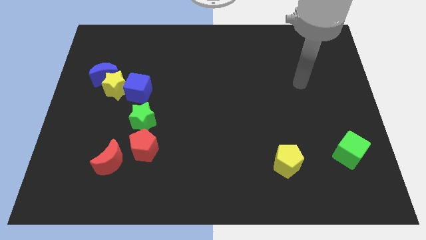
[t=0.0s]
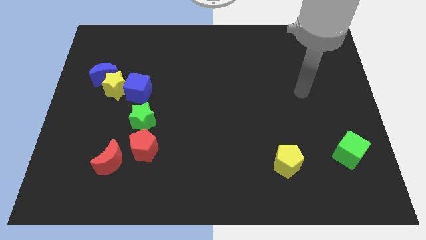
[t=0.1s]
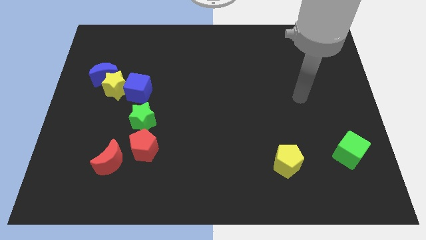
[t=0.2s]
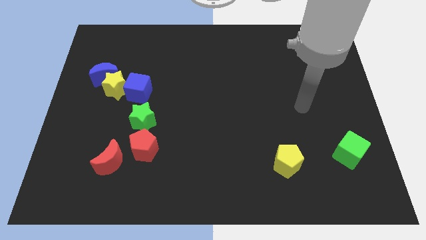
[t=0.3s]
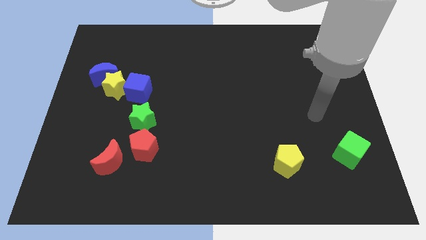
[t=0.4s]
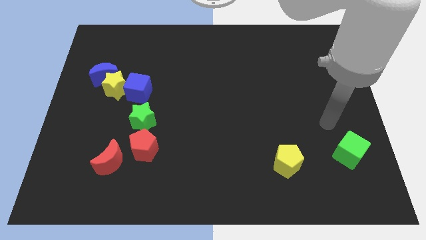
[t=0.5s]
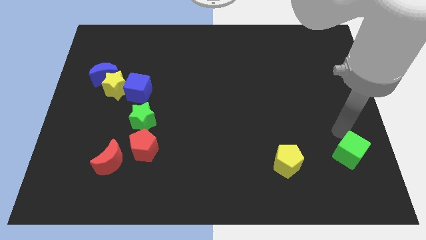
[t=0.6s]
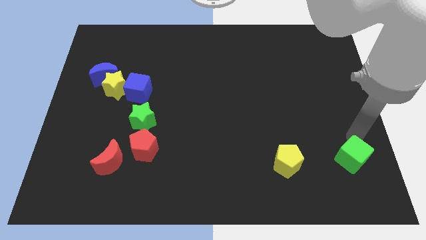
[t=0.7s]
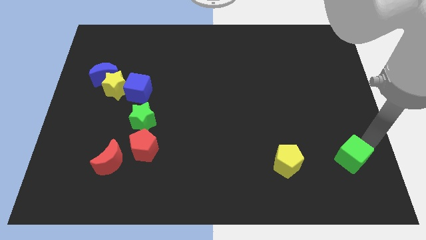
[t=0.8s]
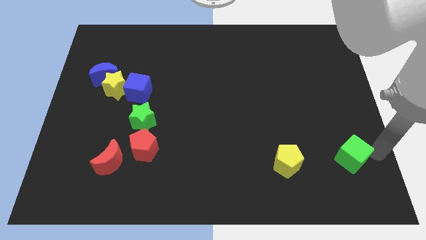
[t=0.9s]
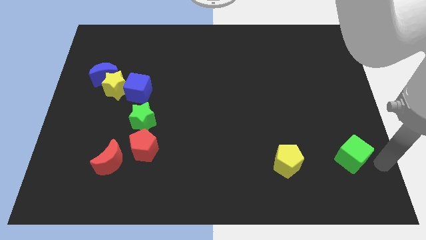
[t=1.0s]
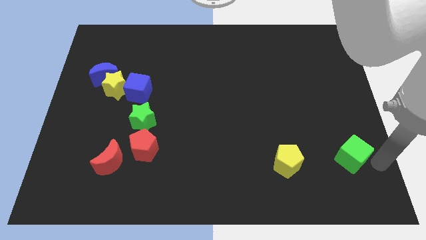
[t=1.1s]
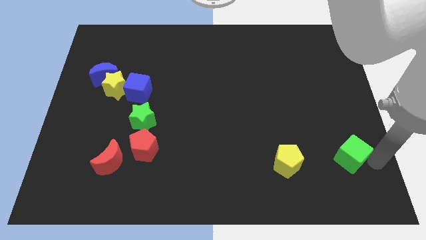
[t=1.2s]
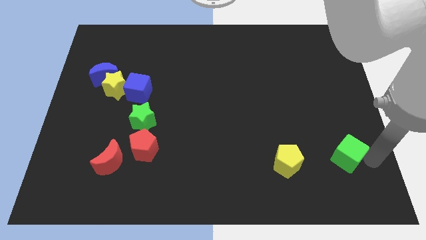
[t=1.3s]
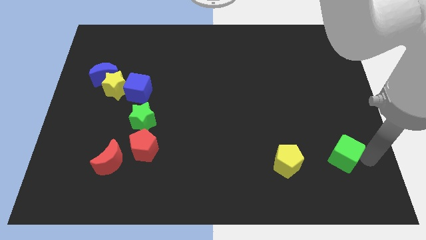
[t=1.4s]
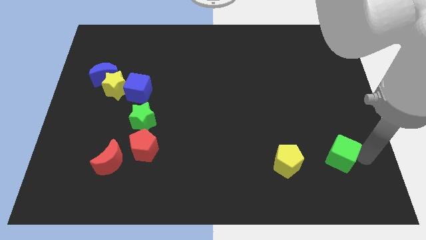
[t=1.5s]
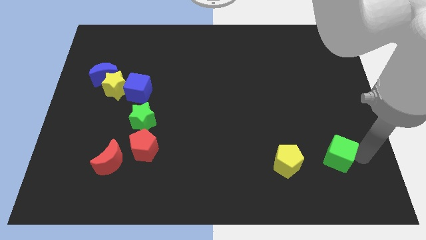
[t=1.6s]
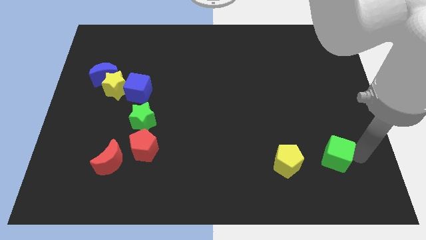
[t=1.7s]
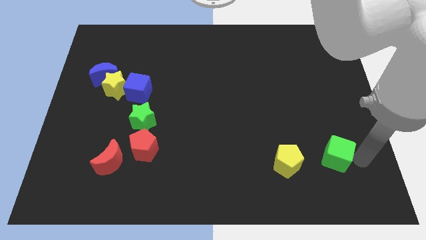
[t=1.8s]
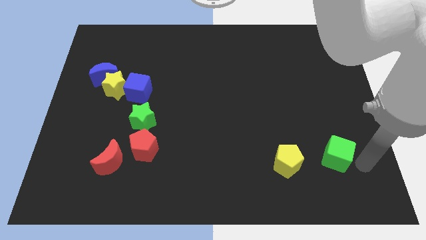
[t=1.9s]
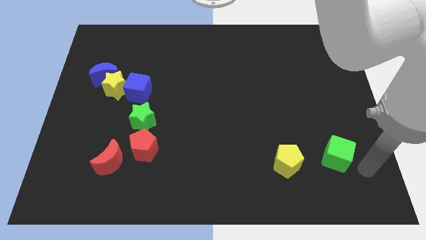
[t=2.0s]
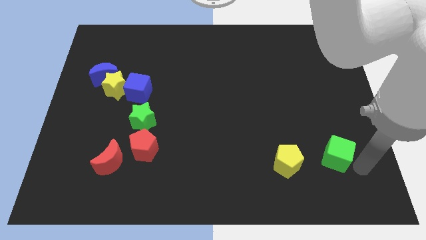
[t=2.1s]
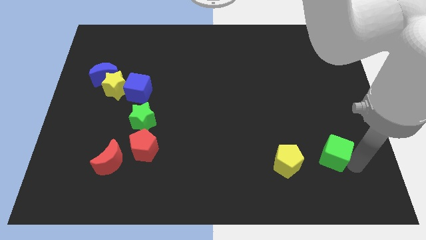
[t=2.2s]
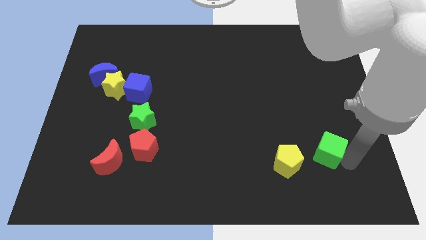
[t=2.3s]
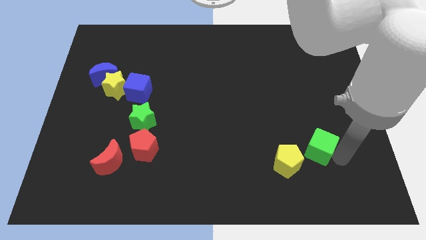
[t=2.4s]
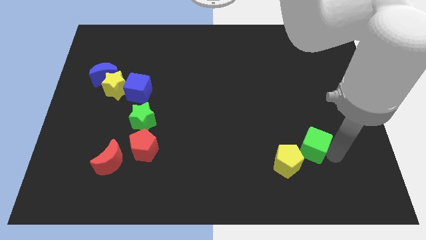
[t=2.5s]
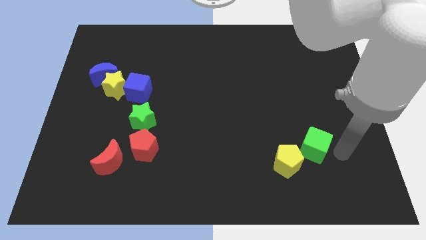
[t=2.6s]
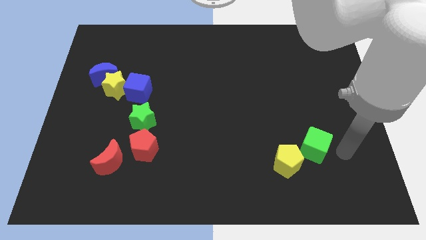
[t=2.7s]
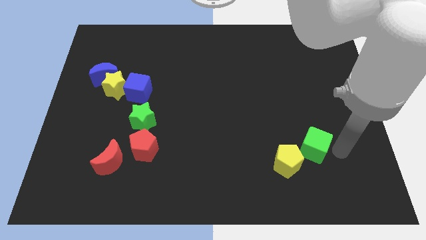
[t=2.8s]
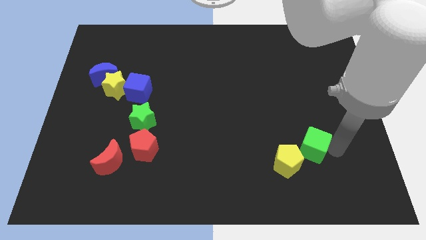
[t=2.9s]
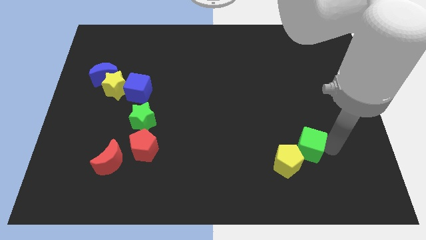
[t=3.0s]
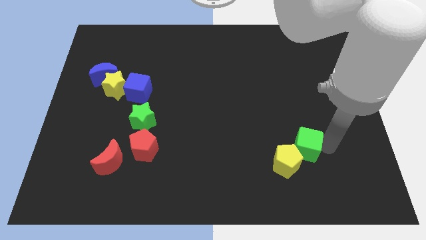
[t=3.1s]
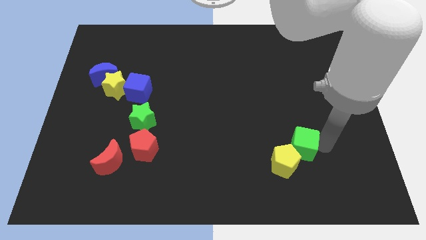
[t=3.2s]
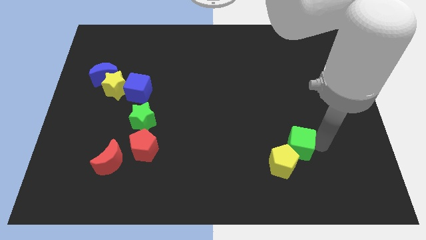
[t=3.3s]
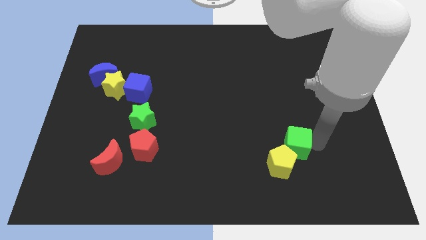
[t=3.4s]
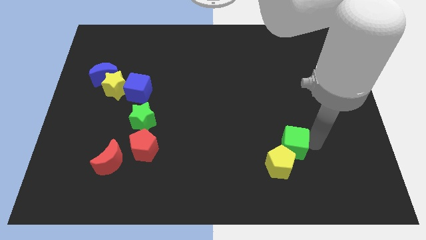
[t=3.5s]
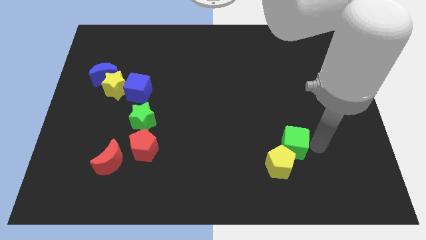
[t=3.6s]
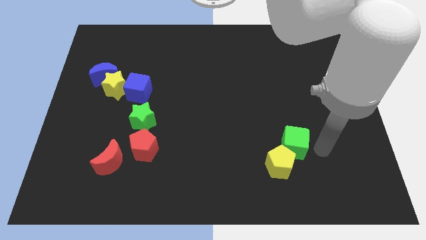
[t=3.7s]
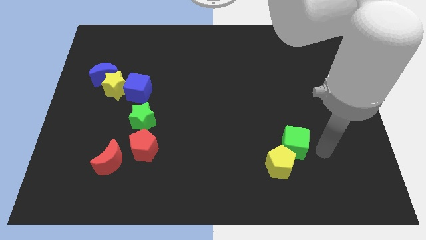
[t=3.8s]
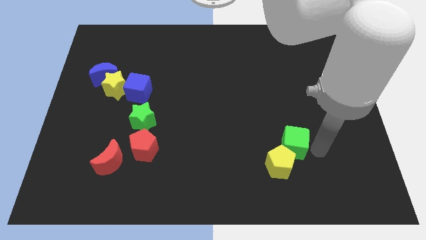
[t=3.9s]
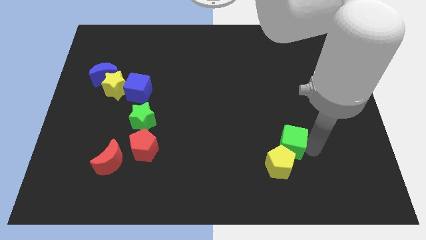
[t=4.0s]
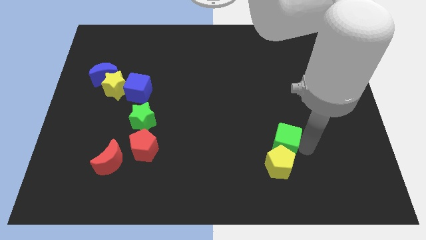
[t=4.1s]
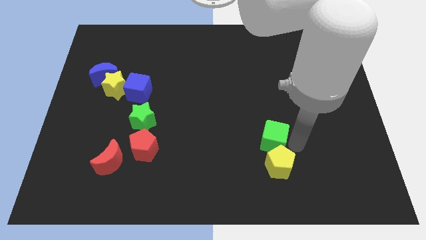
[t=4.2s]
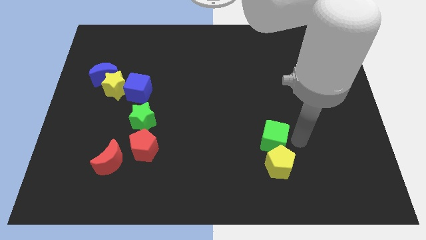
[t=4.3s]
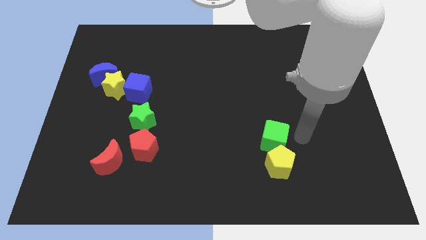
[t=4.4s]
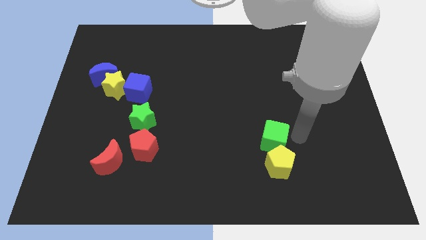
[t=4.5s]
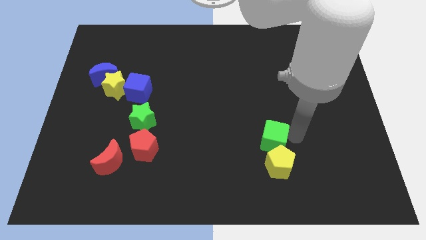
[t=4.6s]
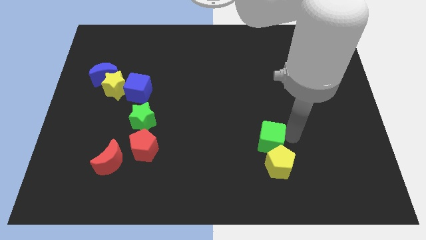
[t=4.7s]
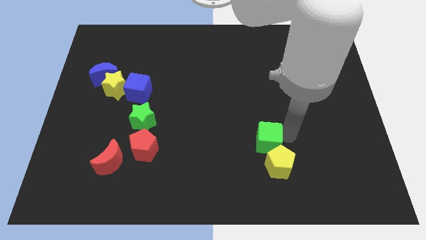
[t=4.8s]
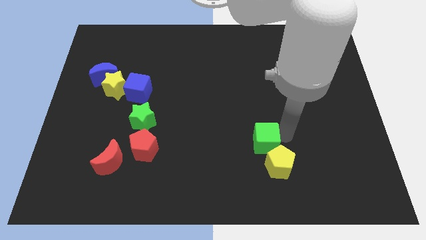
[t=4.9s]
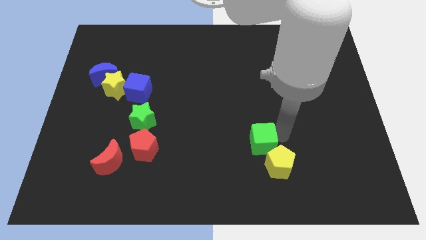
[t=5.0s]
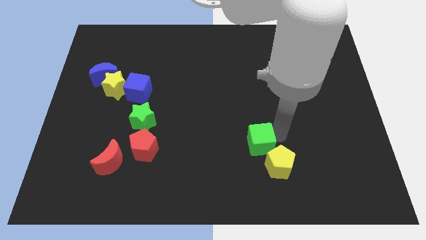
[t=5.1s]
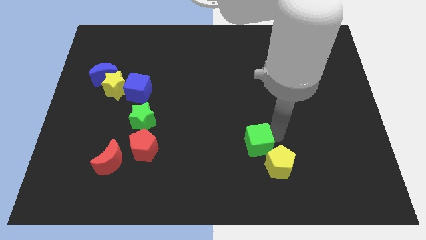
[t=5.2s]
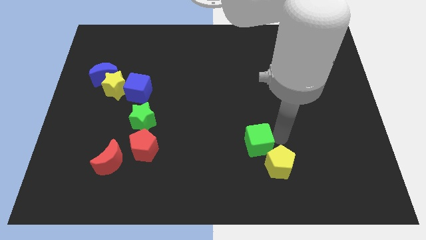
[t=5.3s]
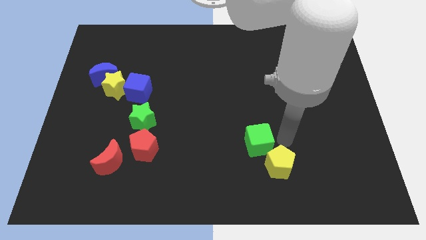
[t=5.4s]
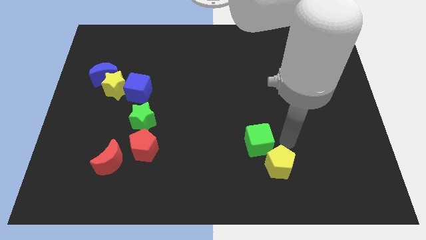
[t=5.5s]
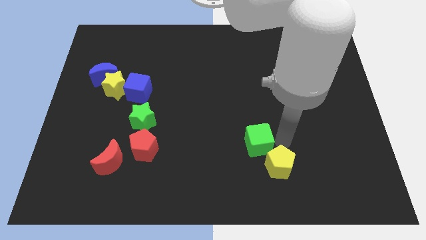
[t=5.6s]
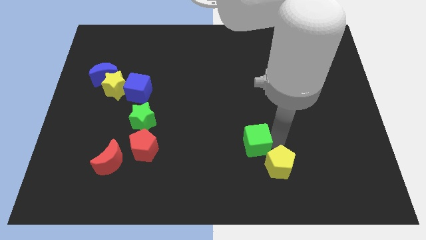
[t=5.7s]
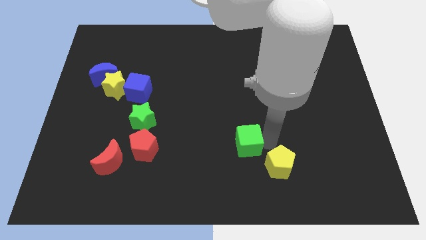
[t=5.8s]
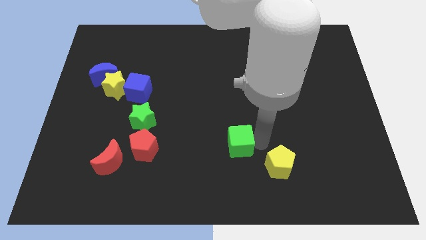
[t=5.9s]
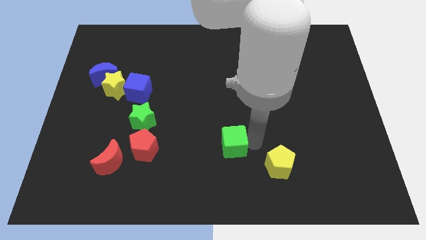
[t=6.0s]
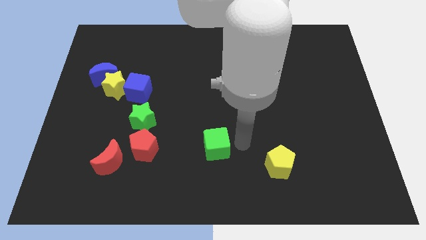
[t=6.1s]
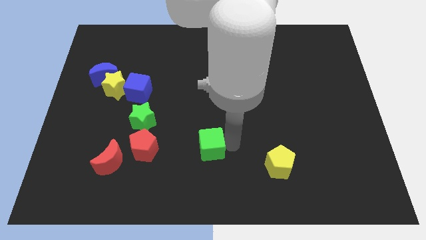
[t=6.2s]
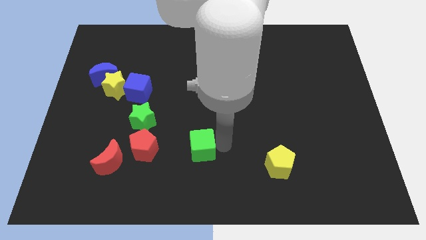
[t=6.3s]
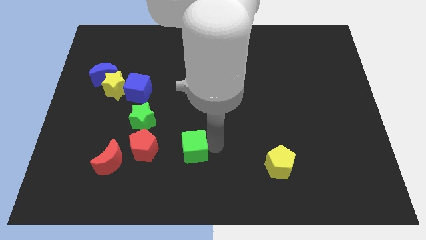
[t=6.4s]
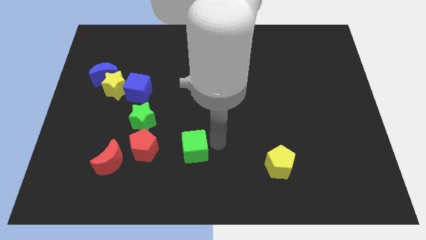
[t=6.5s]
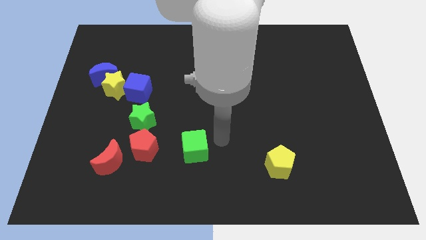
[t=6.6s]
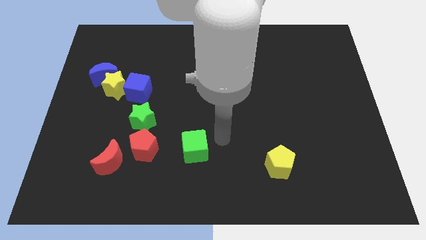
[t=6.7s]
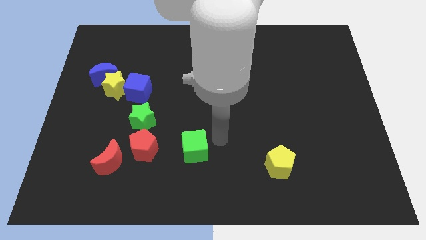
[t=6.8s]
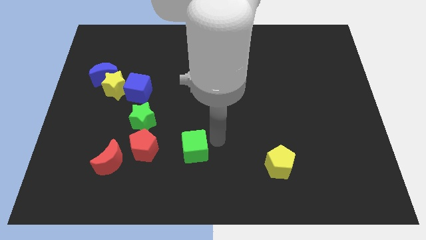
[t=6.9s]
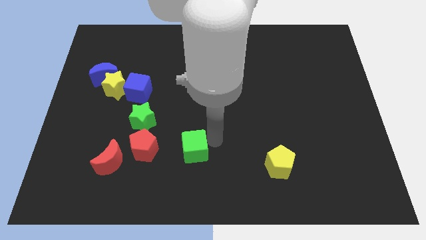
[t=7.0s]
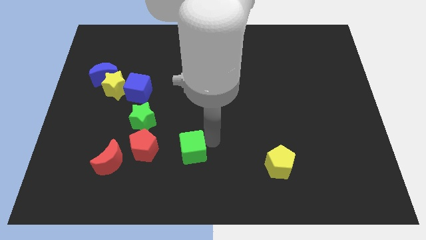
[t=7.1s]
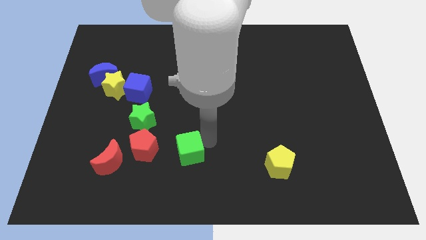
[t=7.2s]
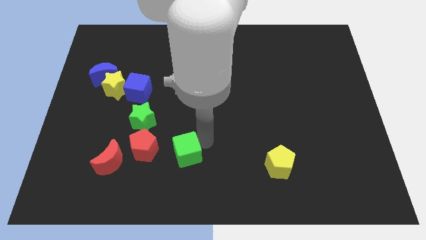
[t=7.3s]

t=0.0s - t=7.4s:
push the green cube to the right side of the red moon
